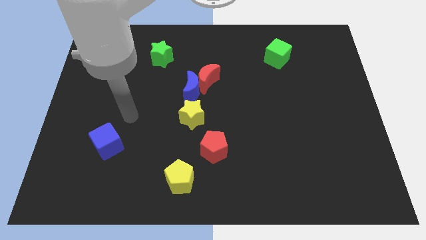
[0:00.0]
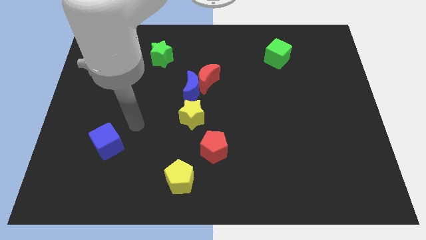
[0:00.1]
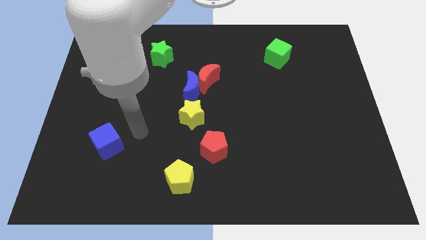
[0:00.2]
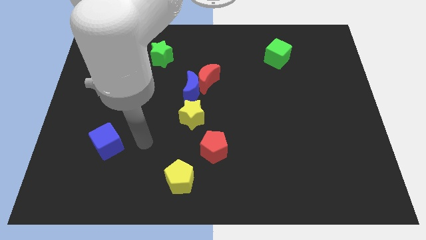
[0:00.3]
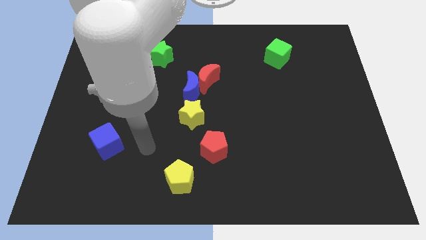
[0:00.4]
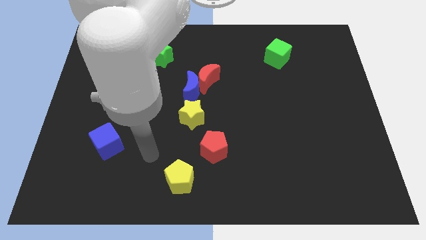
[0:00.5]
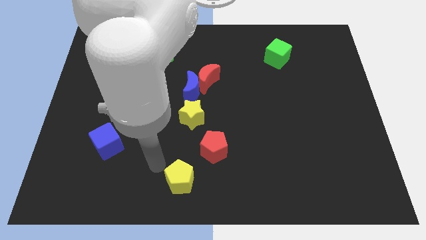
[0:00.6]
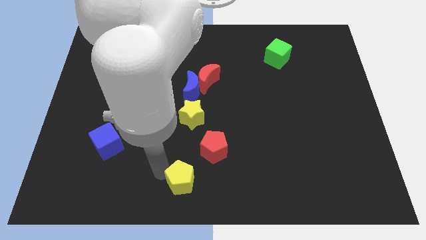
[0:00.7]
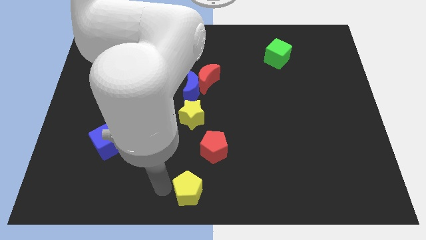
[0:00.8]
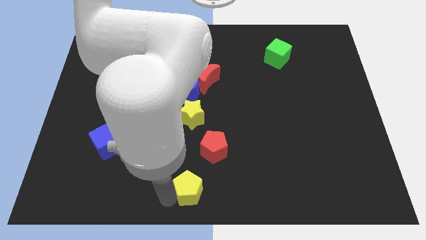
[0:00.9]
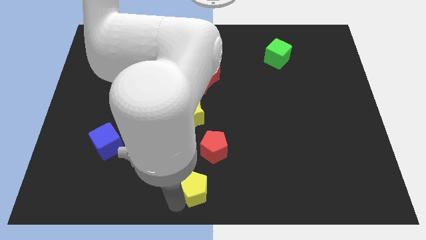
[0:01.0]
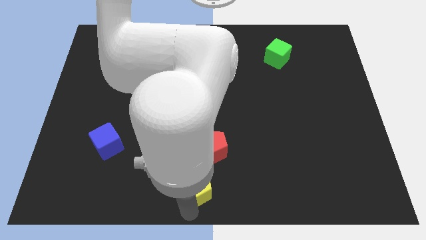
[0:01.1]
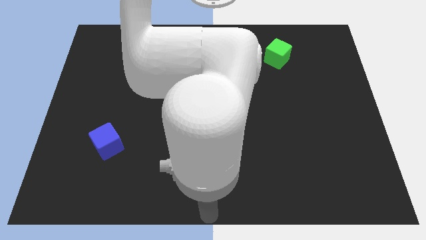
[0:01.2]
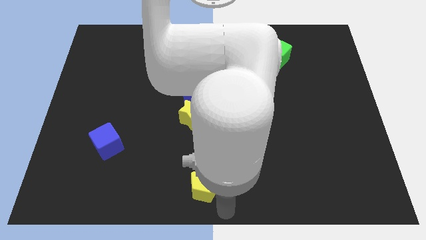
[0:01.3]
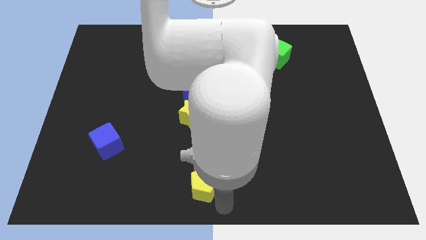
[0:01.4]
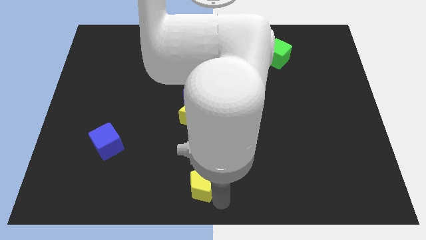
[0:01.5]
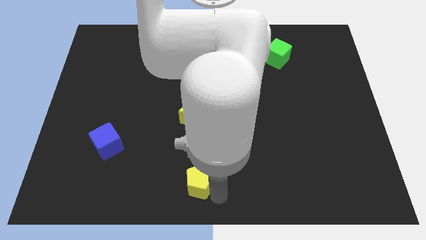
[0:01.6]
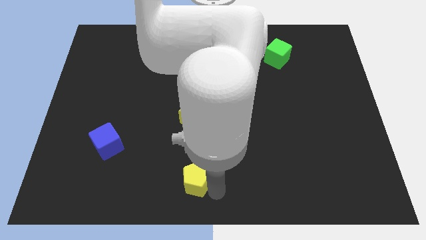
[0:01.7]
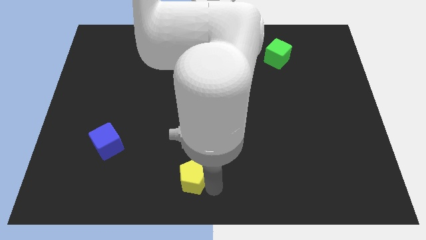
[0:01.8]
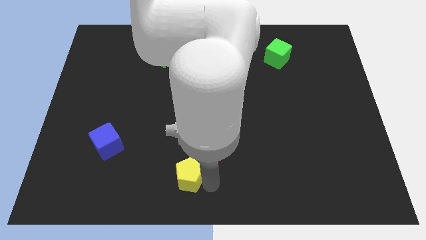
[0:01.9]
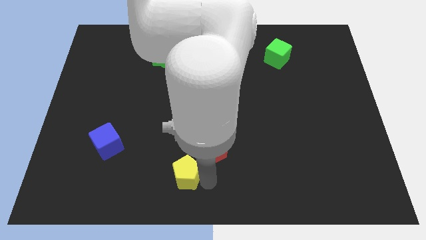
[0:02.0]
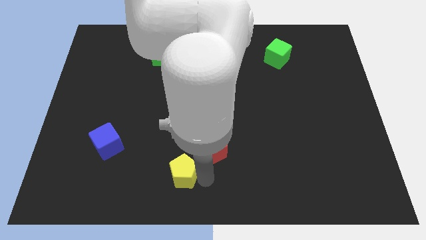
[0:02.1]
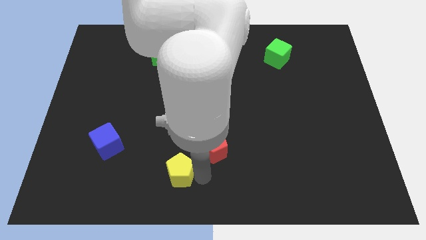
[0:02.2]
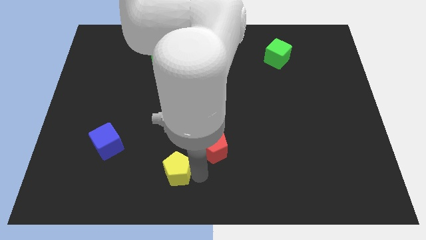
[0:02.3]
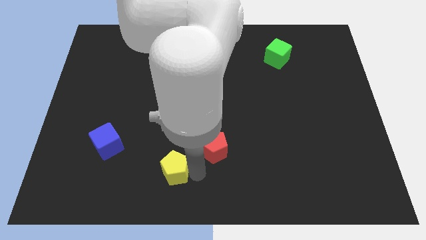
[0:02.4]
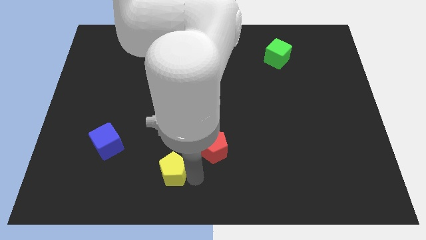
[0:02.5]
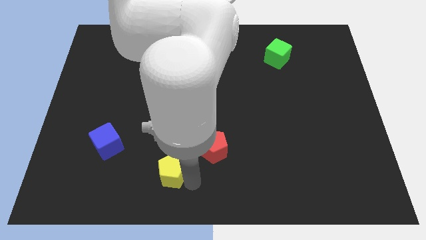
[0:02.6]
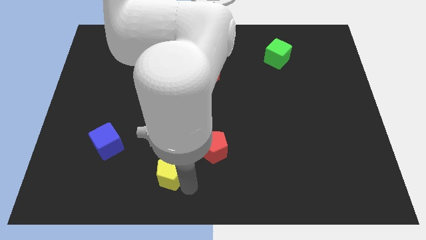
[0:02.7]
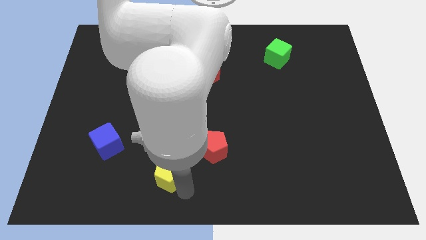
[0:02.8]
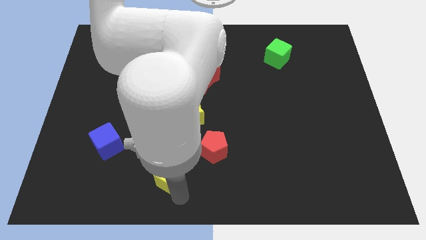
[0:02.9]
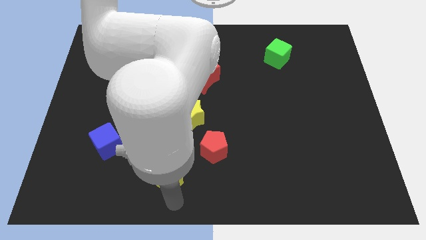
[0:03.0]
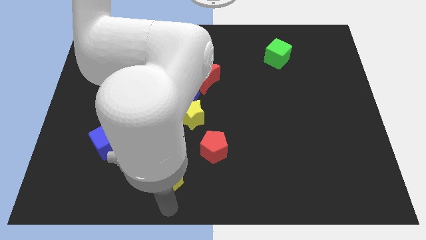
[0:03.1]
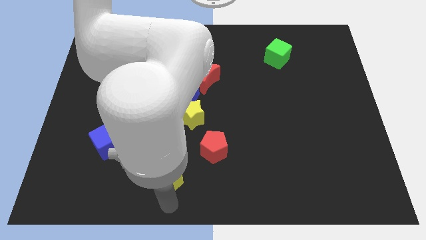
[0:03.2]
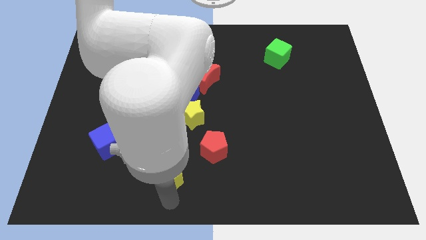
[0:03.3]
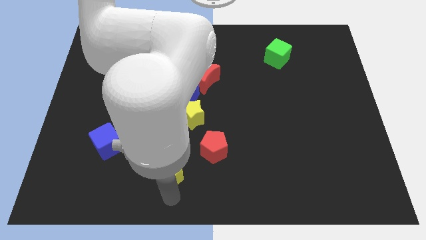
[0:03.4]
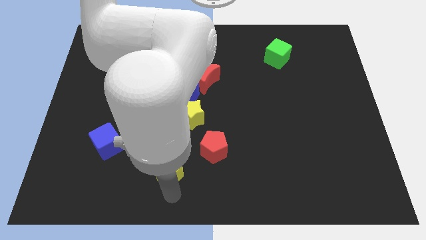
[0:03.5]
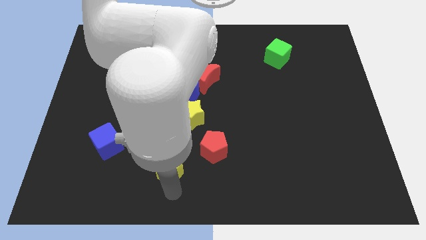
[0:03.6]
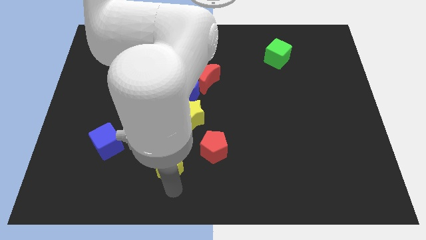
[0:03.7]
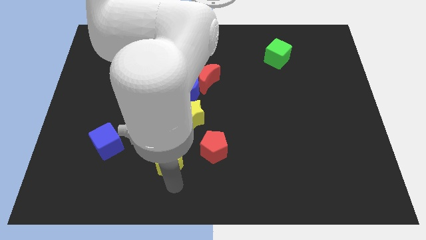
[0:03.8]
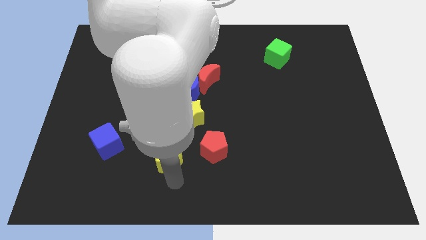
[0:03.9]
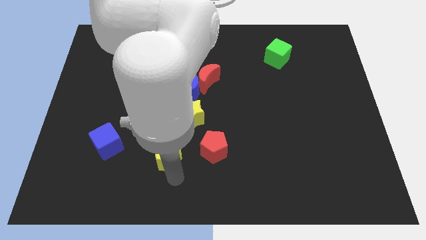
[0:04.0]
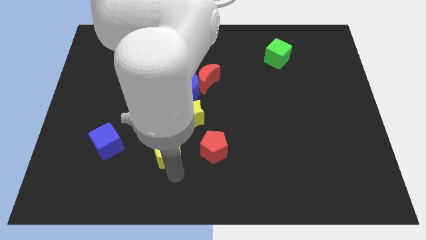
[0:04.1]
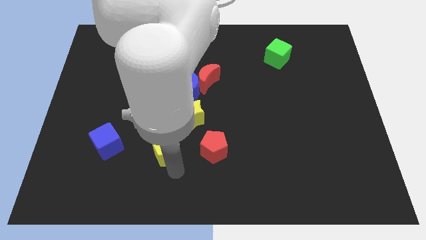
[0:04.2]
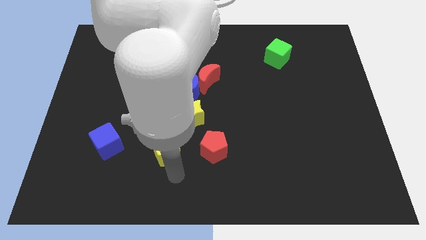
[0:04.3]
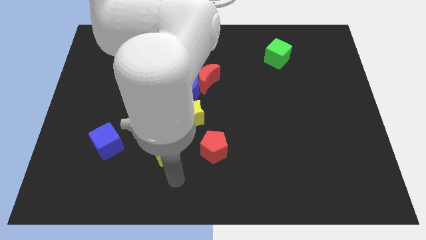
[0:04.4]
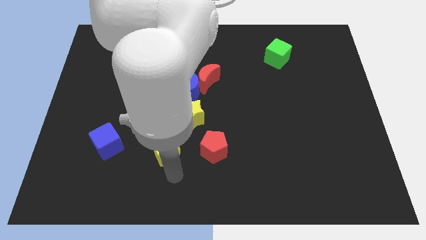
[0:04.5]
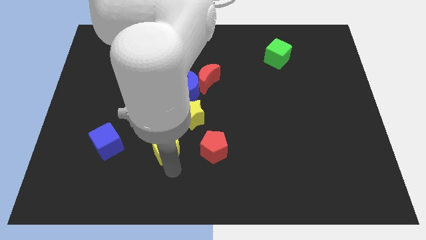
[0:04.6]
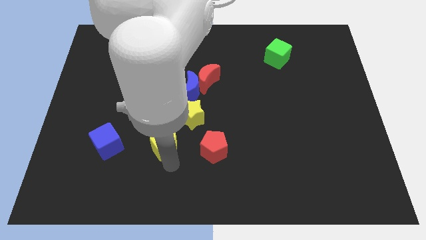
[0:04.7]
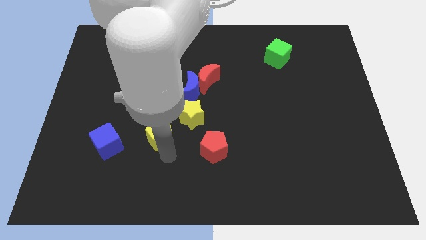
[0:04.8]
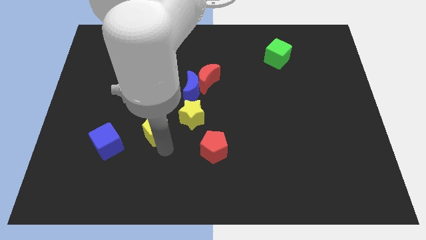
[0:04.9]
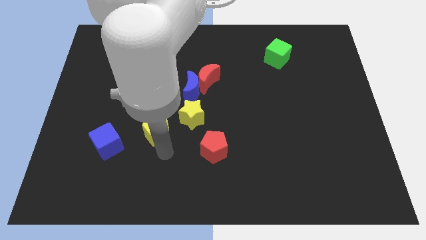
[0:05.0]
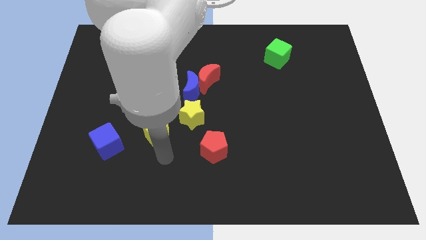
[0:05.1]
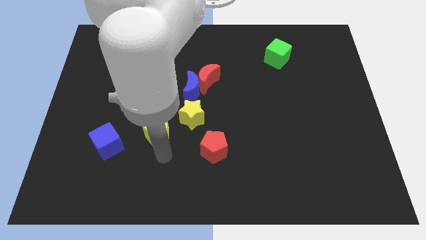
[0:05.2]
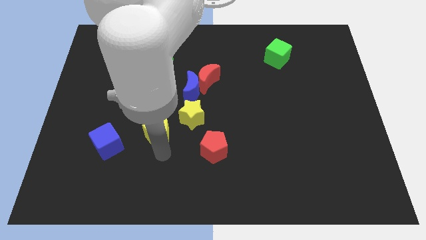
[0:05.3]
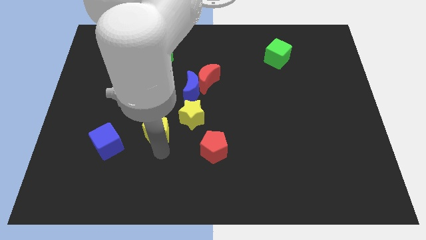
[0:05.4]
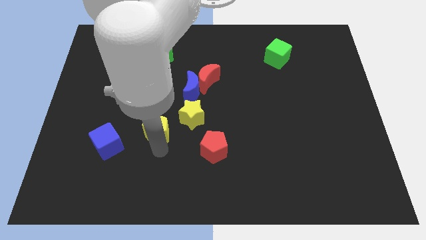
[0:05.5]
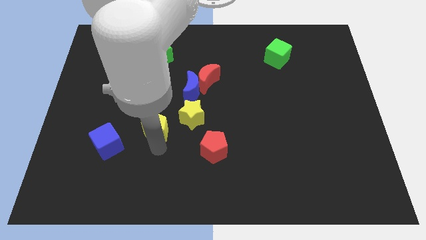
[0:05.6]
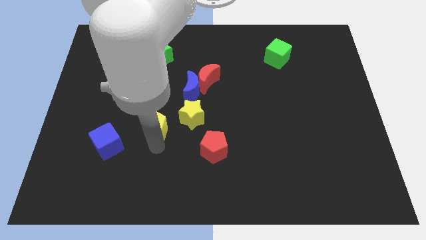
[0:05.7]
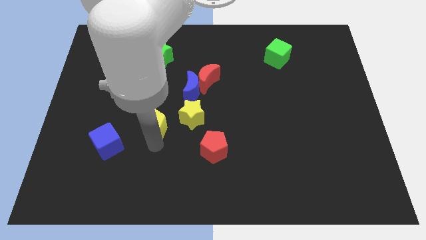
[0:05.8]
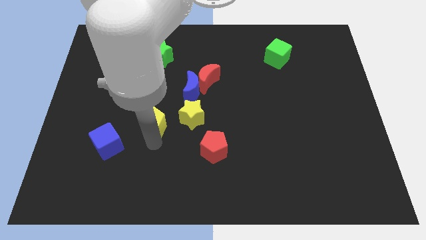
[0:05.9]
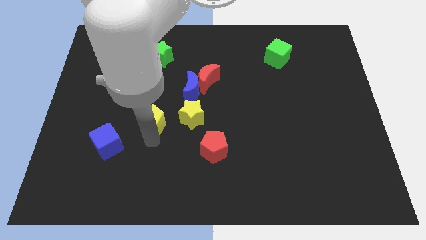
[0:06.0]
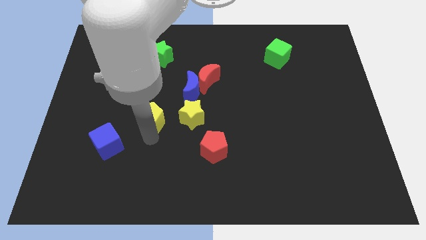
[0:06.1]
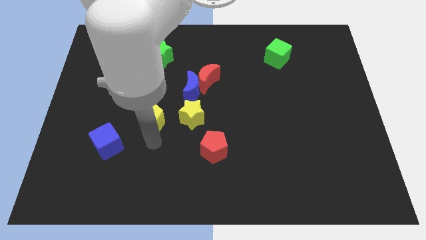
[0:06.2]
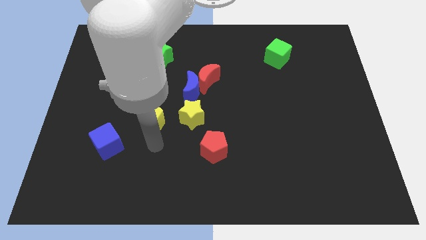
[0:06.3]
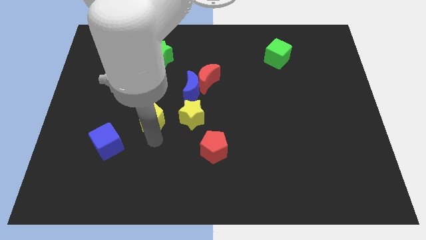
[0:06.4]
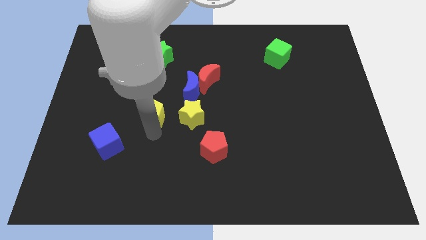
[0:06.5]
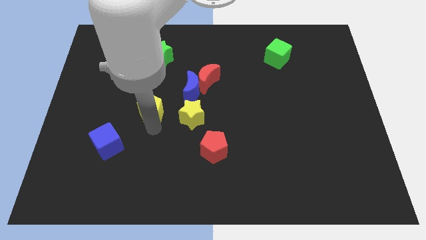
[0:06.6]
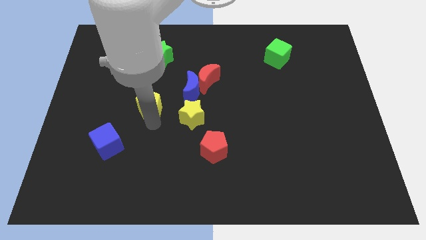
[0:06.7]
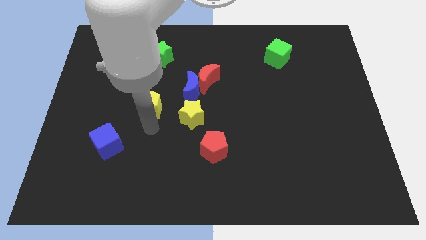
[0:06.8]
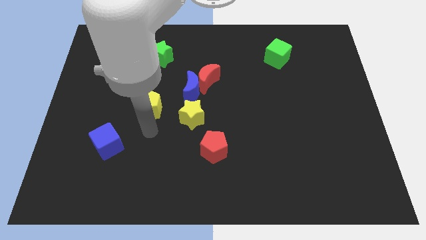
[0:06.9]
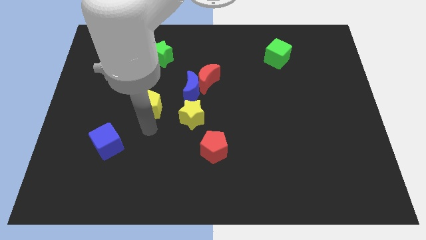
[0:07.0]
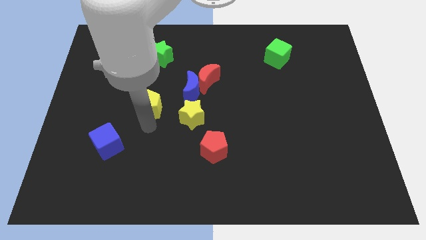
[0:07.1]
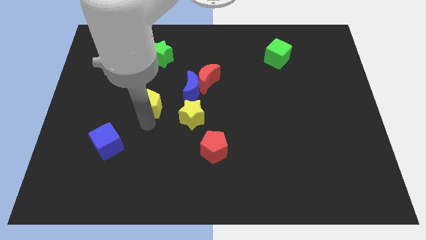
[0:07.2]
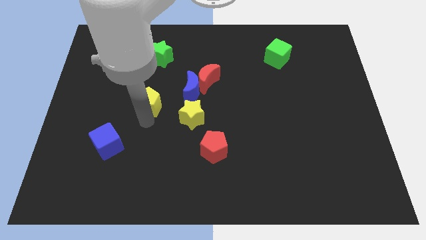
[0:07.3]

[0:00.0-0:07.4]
move the yellow pentagon to the left side of the blue moon
